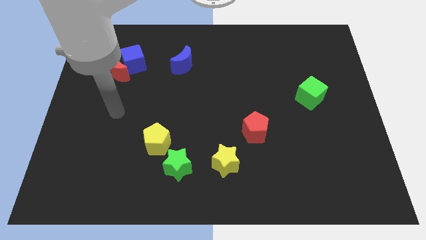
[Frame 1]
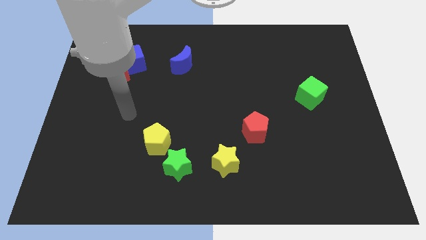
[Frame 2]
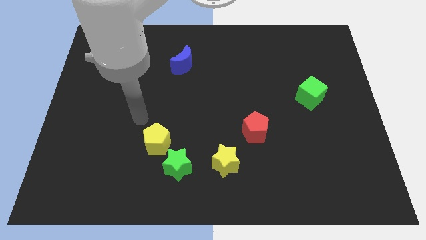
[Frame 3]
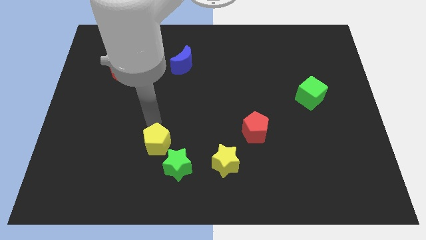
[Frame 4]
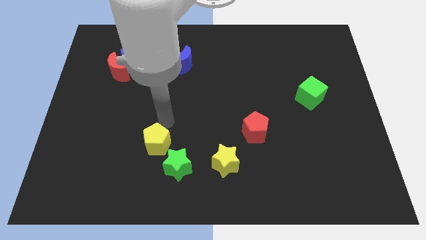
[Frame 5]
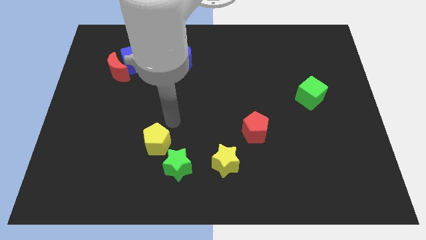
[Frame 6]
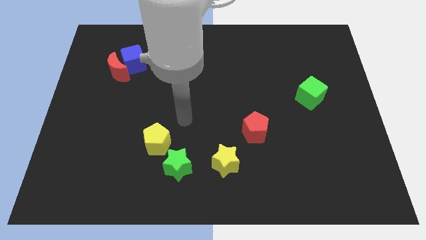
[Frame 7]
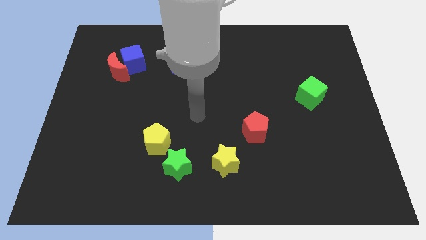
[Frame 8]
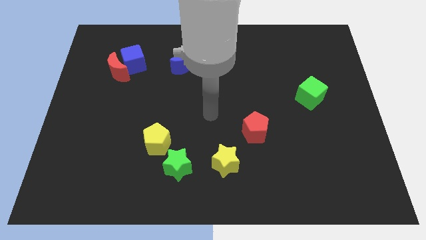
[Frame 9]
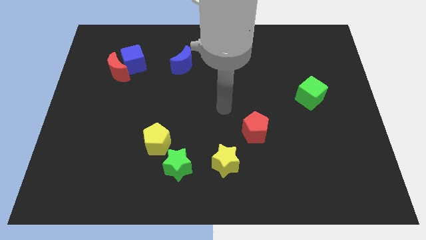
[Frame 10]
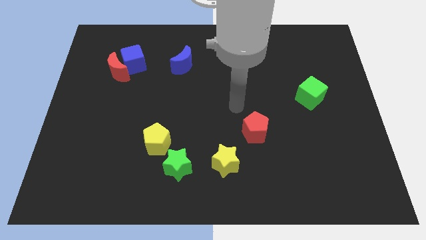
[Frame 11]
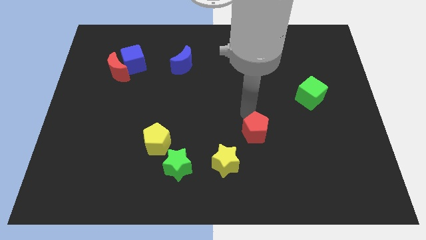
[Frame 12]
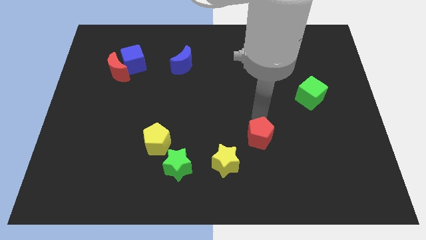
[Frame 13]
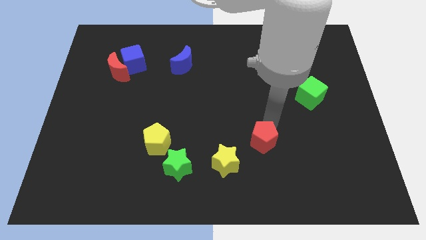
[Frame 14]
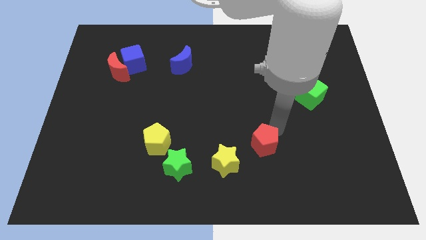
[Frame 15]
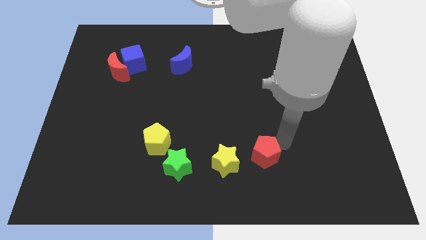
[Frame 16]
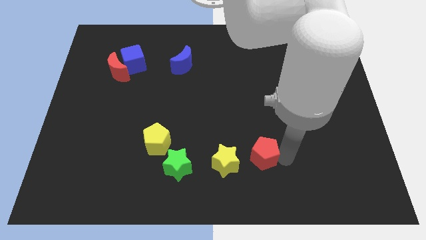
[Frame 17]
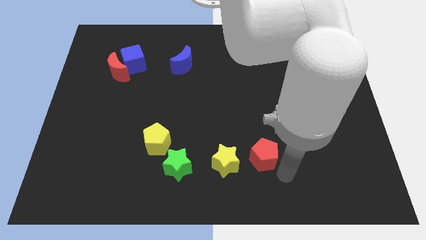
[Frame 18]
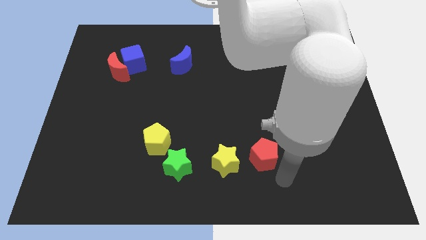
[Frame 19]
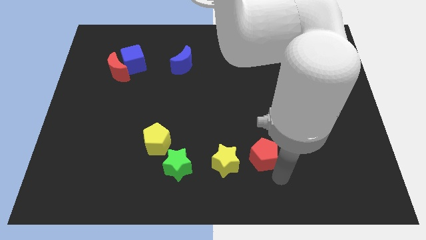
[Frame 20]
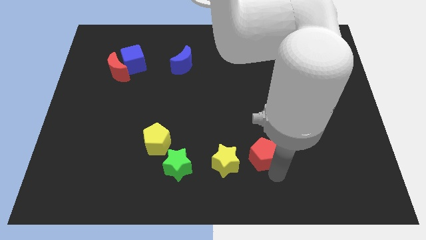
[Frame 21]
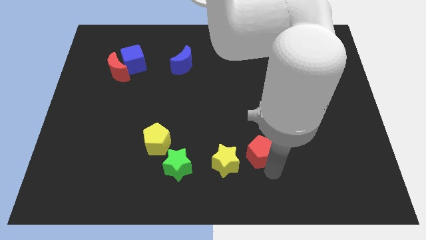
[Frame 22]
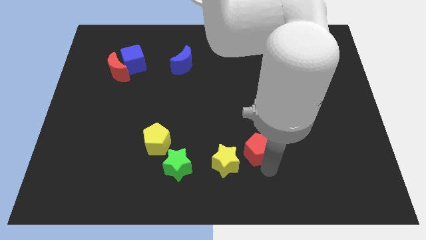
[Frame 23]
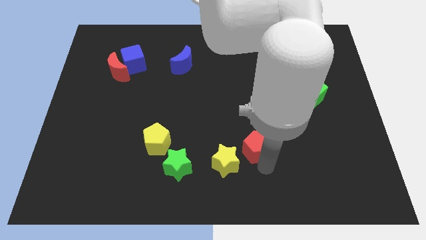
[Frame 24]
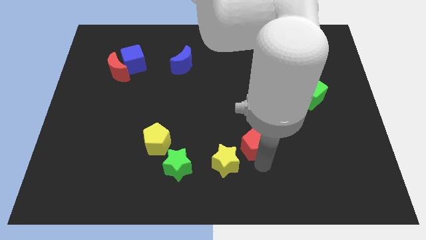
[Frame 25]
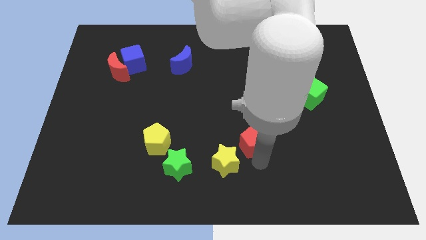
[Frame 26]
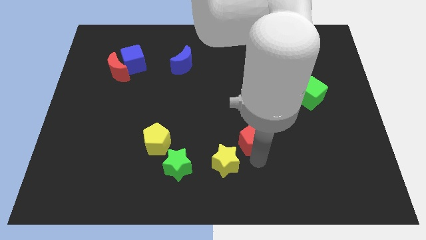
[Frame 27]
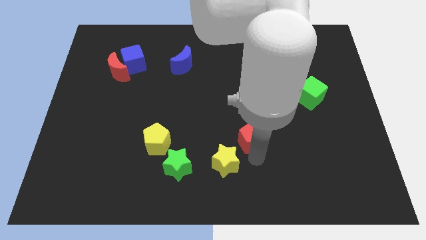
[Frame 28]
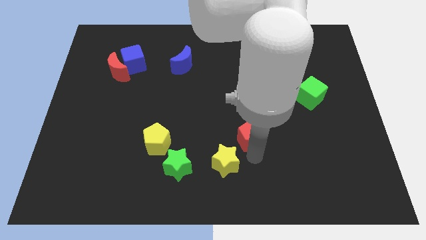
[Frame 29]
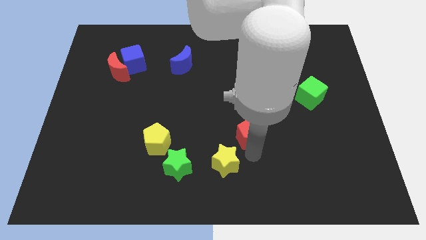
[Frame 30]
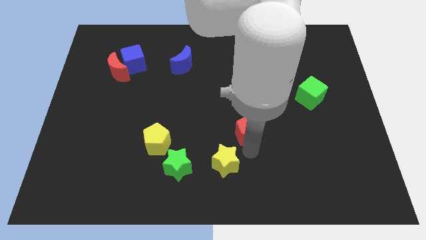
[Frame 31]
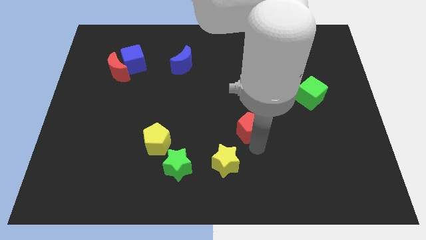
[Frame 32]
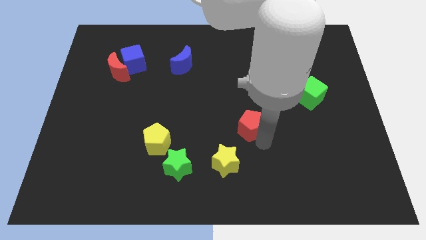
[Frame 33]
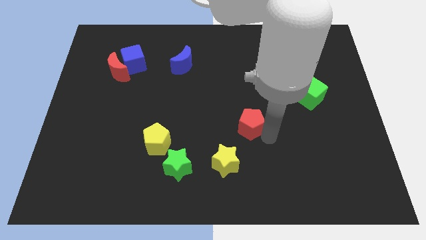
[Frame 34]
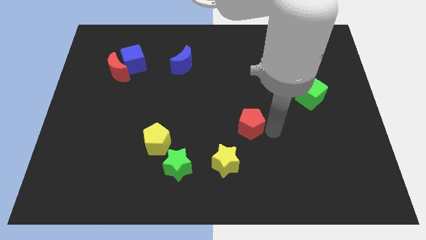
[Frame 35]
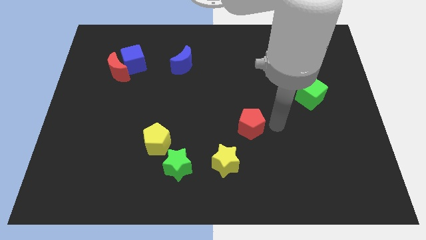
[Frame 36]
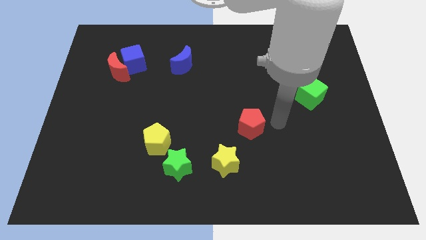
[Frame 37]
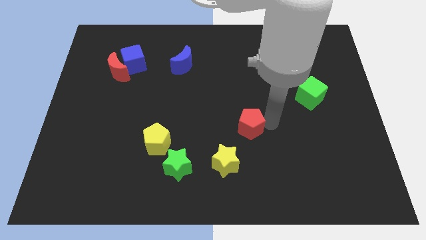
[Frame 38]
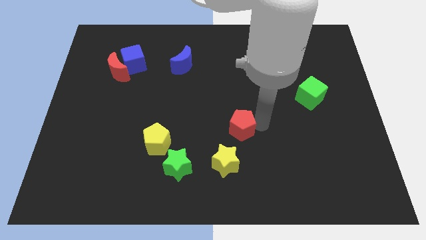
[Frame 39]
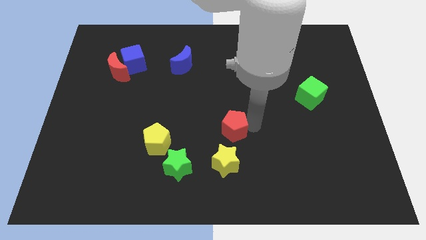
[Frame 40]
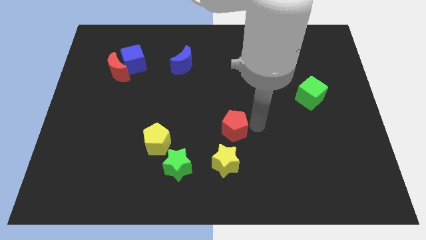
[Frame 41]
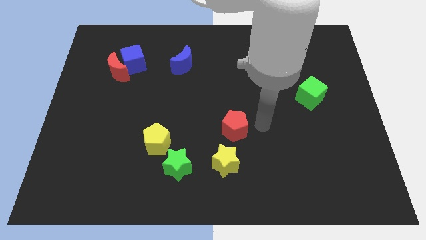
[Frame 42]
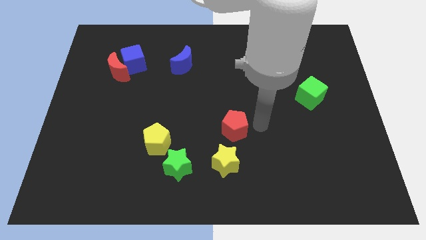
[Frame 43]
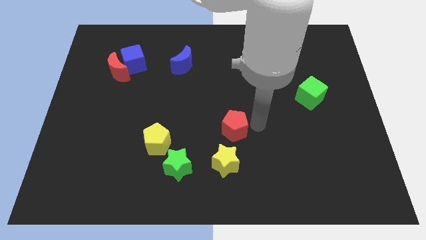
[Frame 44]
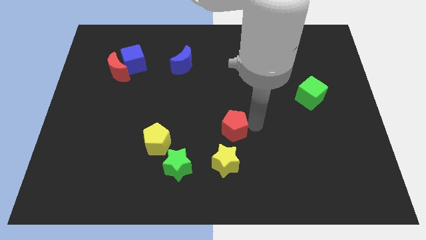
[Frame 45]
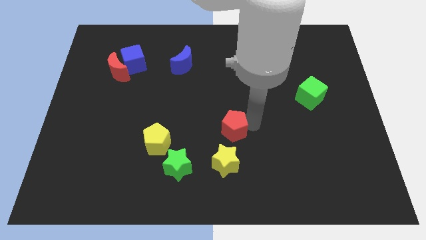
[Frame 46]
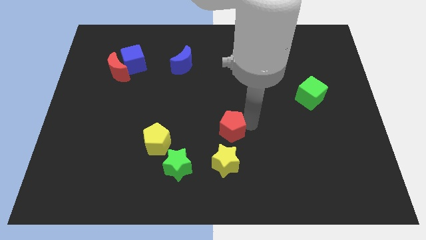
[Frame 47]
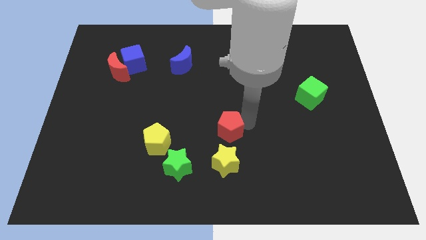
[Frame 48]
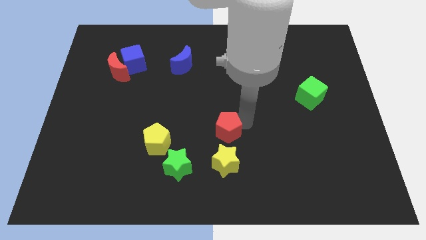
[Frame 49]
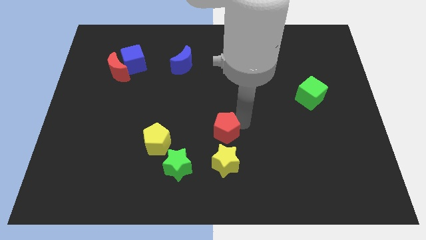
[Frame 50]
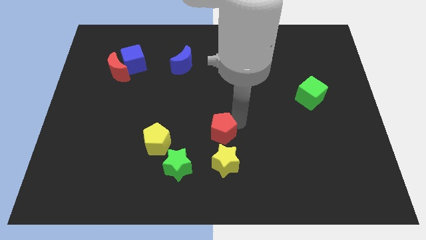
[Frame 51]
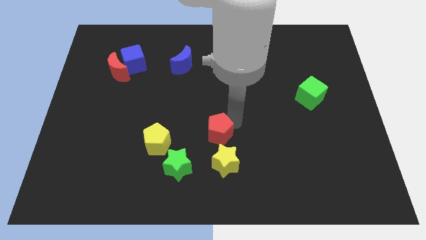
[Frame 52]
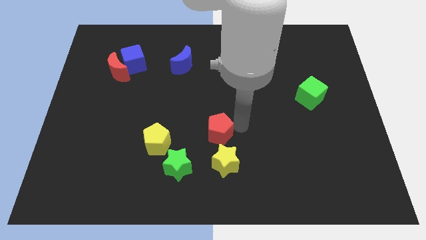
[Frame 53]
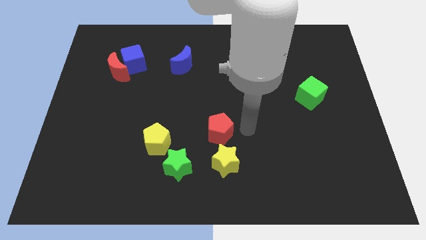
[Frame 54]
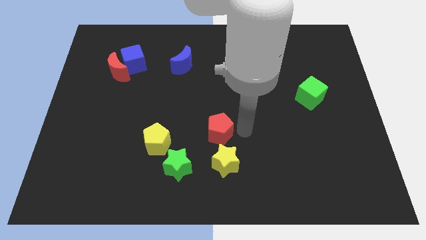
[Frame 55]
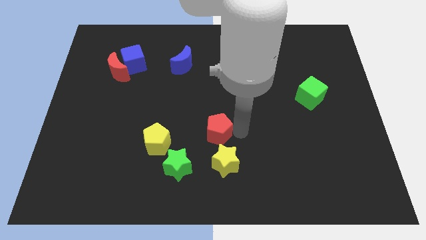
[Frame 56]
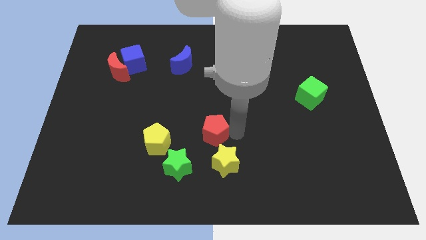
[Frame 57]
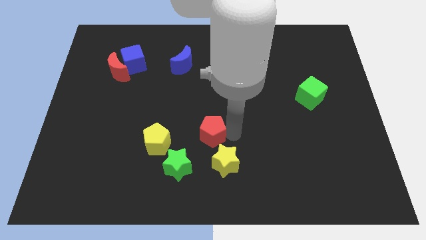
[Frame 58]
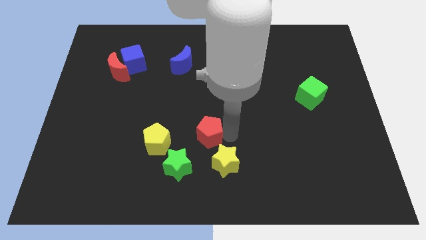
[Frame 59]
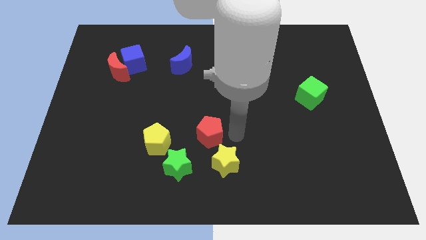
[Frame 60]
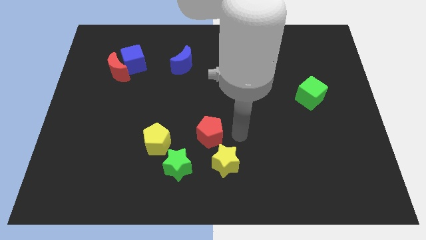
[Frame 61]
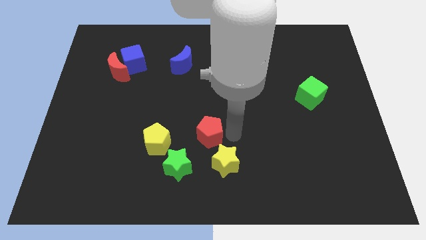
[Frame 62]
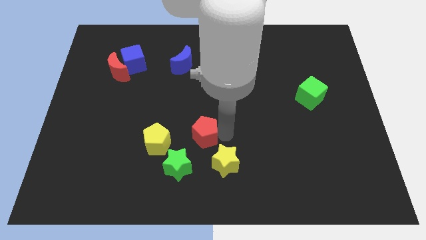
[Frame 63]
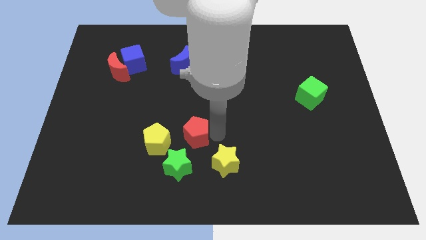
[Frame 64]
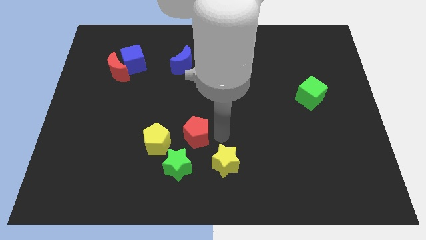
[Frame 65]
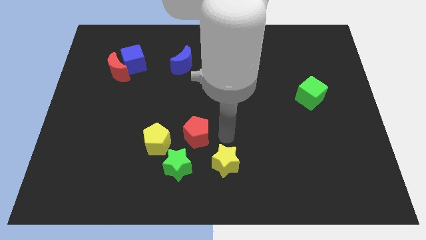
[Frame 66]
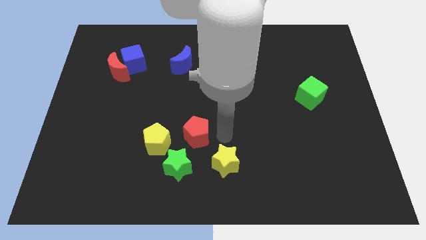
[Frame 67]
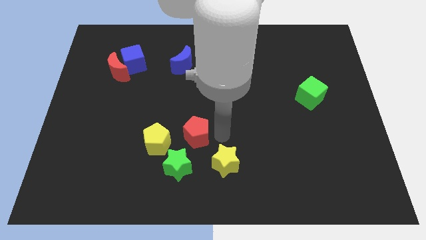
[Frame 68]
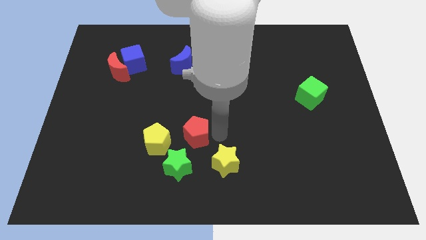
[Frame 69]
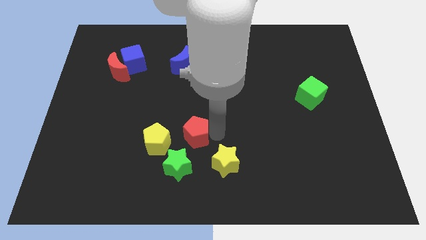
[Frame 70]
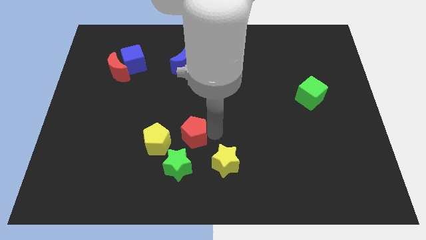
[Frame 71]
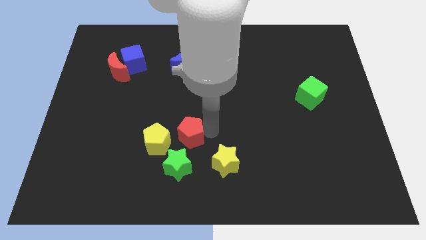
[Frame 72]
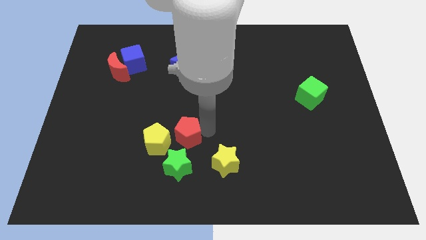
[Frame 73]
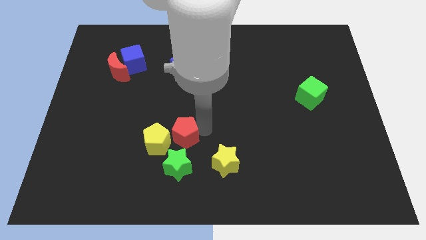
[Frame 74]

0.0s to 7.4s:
slide the red pentagon towards the yellow pentagon
